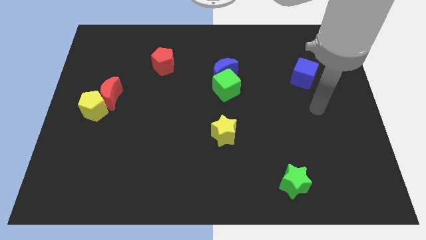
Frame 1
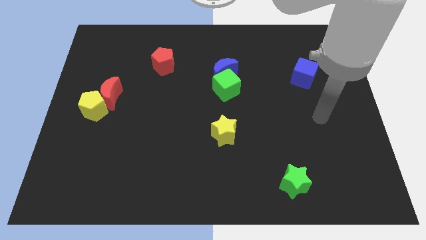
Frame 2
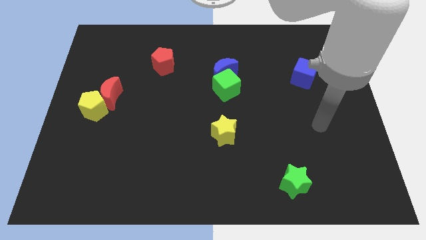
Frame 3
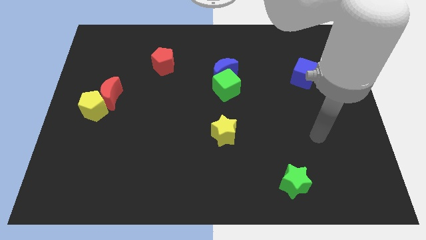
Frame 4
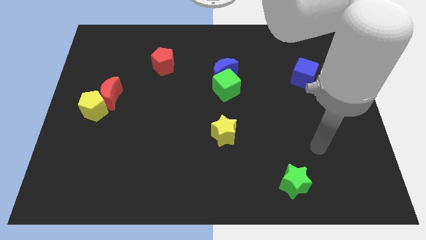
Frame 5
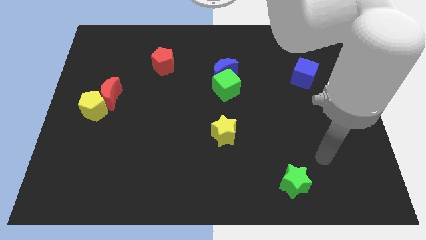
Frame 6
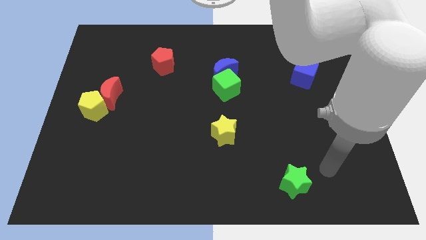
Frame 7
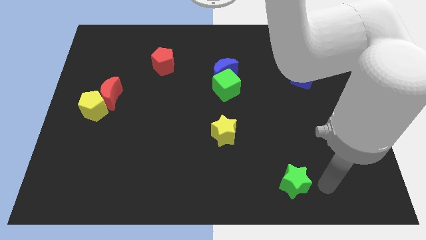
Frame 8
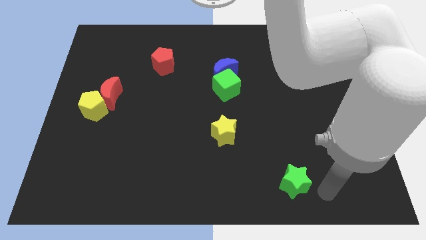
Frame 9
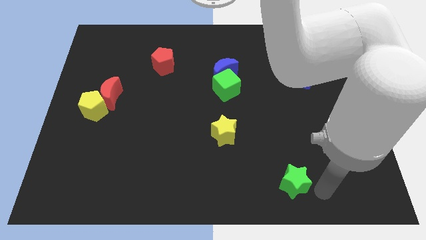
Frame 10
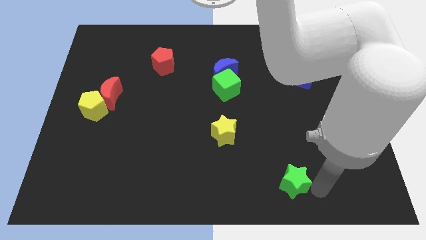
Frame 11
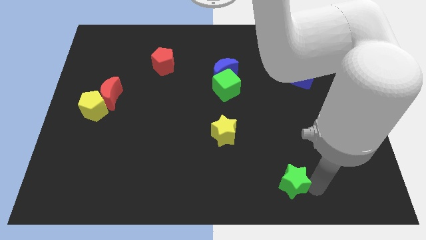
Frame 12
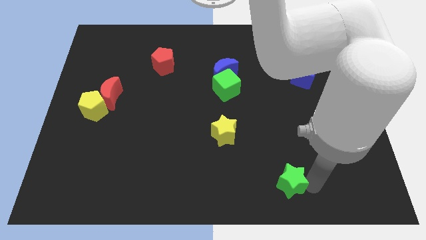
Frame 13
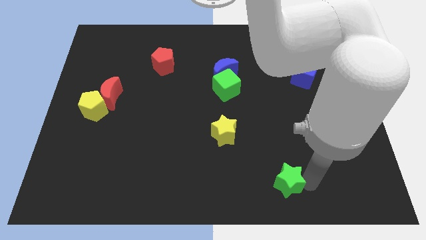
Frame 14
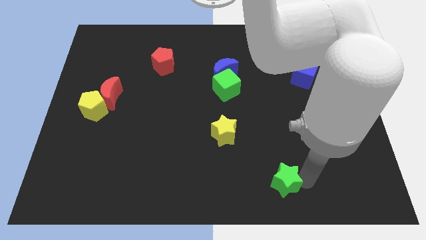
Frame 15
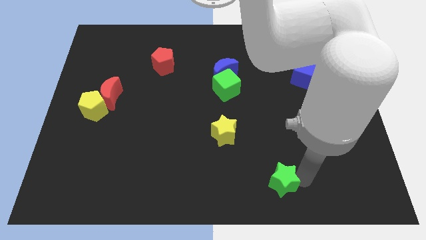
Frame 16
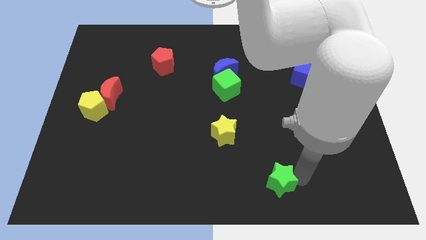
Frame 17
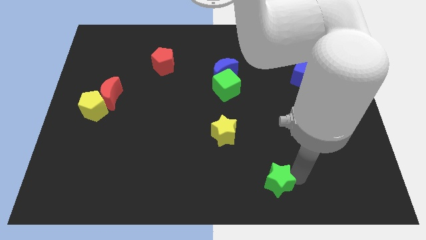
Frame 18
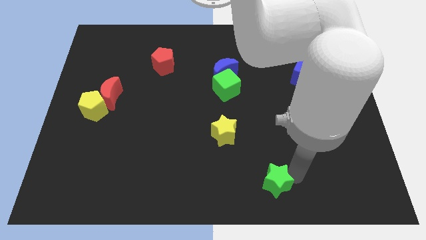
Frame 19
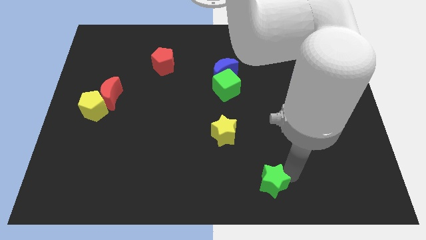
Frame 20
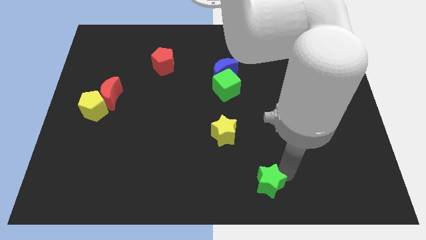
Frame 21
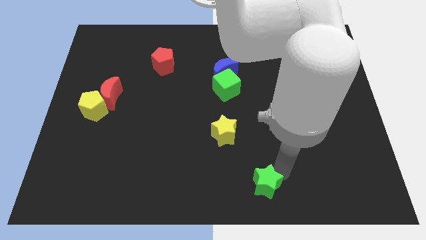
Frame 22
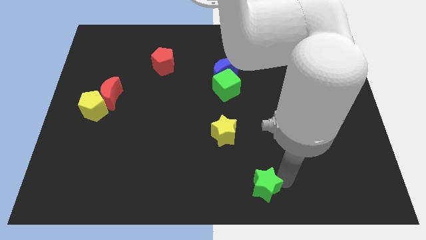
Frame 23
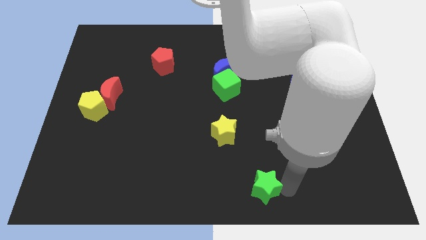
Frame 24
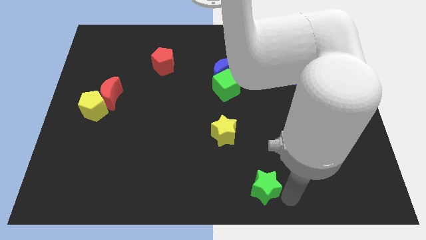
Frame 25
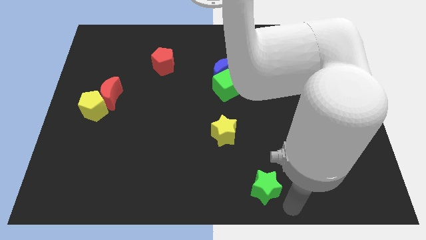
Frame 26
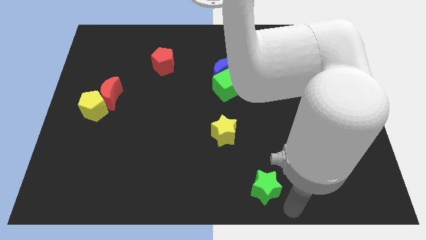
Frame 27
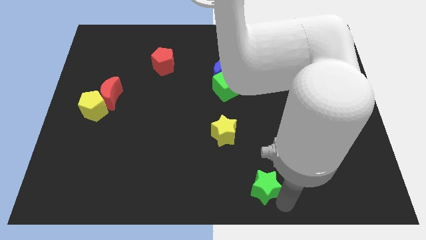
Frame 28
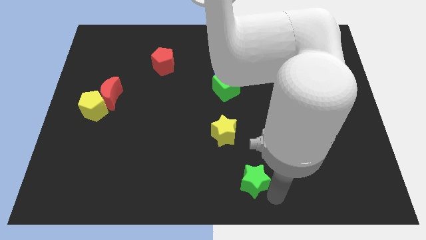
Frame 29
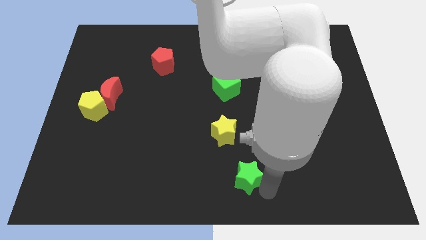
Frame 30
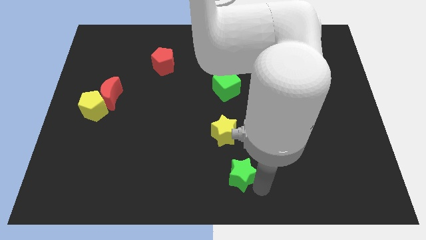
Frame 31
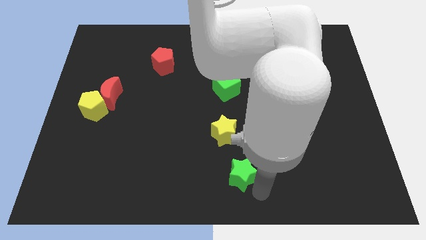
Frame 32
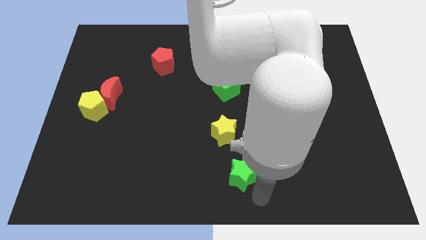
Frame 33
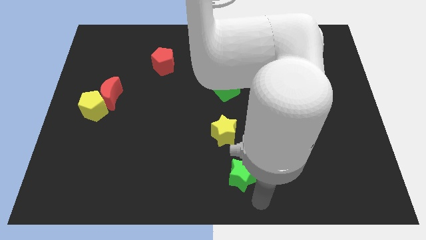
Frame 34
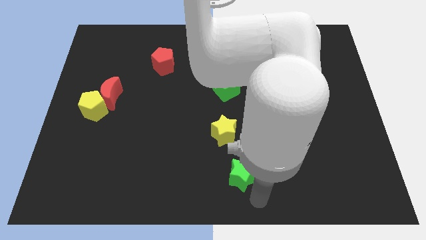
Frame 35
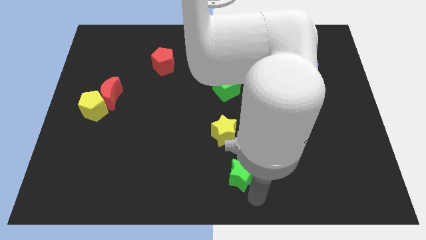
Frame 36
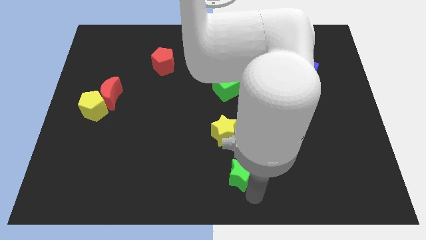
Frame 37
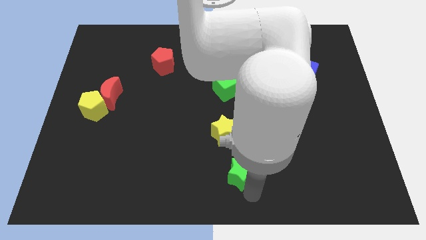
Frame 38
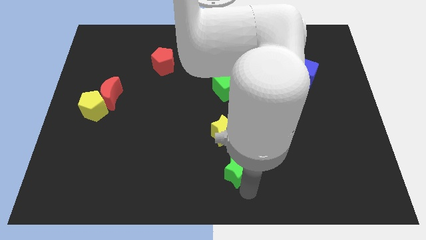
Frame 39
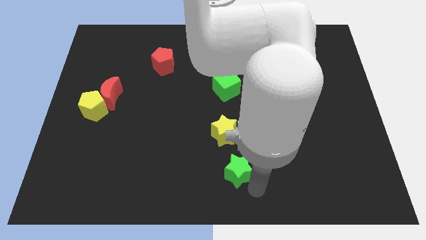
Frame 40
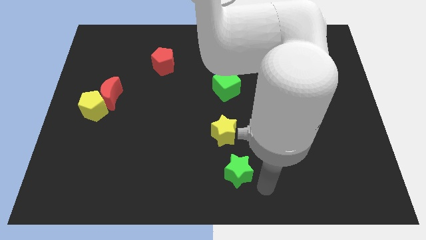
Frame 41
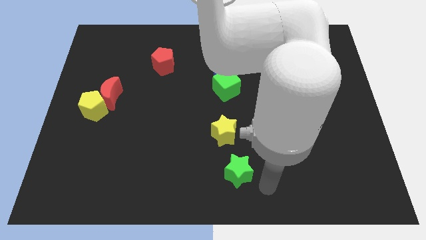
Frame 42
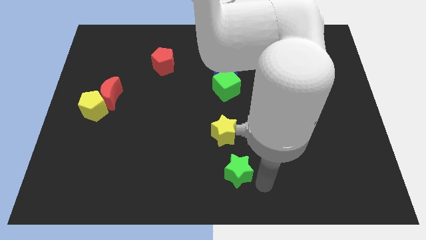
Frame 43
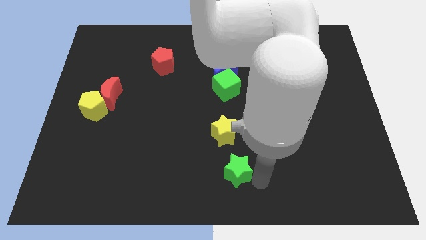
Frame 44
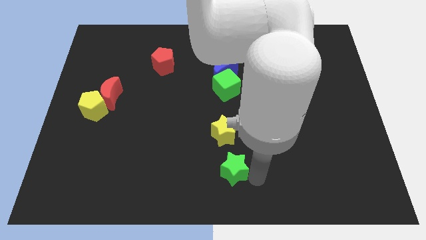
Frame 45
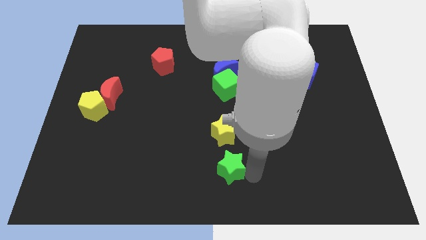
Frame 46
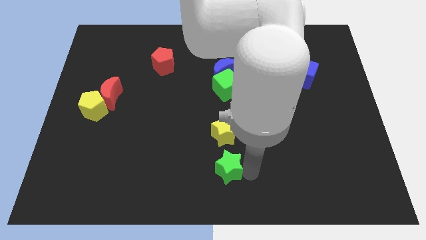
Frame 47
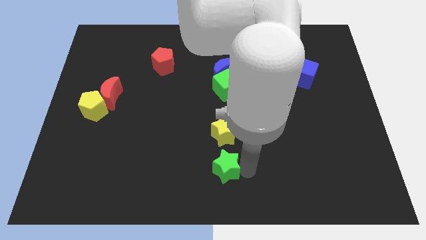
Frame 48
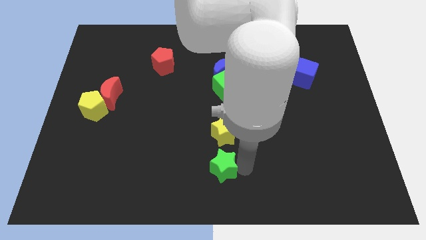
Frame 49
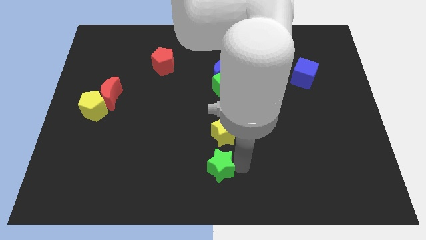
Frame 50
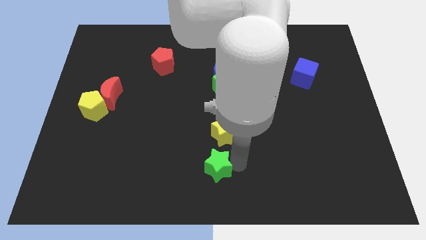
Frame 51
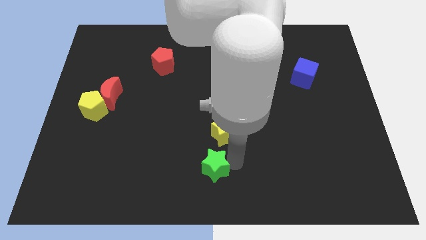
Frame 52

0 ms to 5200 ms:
push the green star to the bottom left of the yellow star

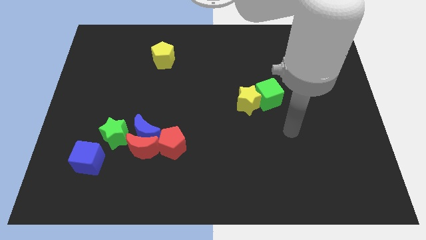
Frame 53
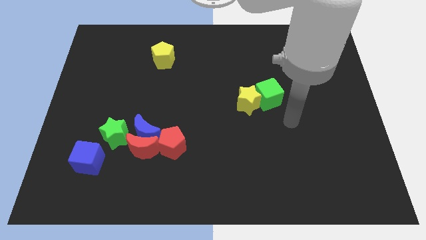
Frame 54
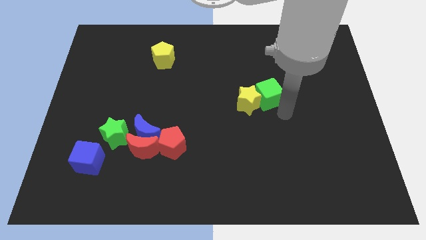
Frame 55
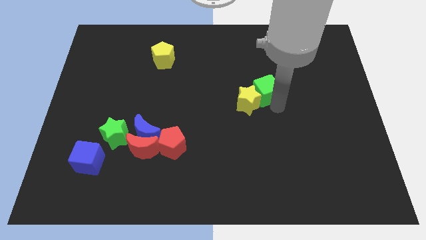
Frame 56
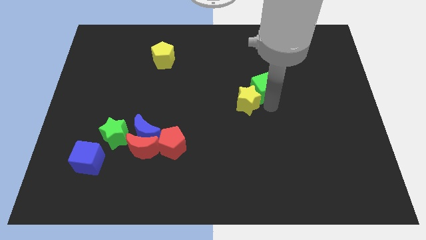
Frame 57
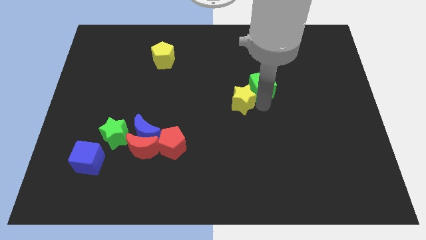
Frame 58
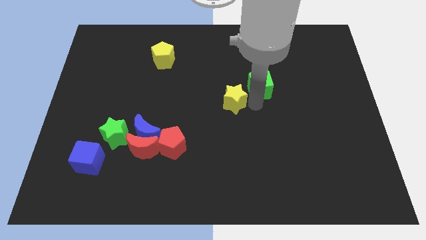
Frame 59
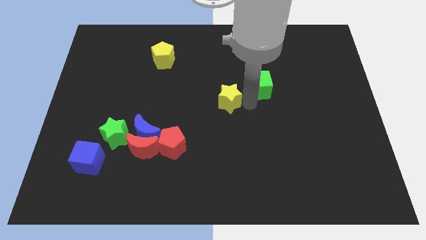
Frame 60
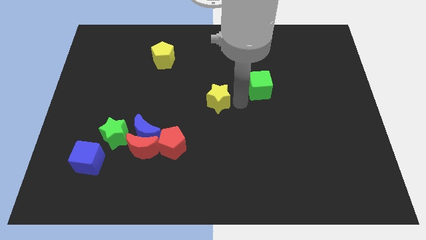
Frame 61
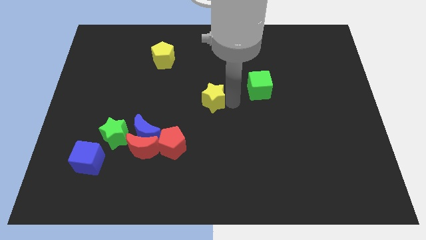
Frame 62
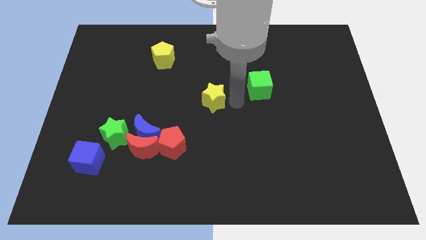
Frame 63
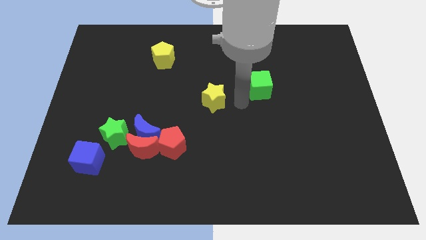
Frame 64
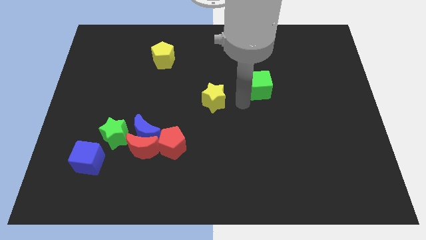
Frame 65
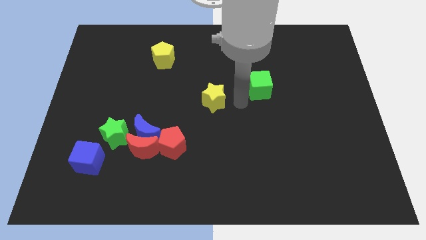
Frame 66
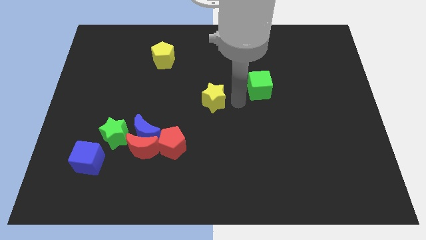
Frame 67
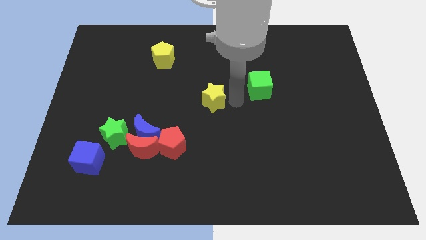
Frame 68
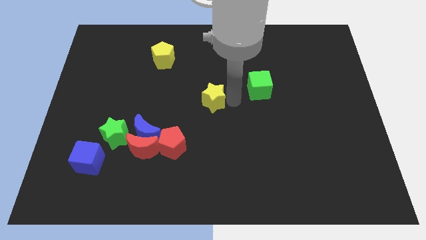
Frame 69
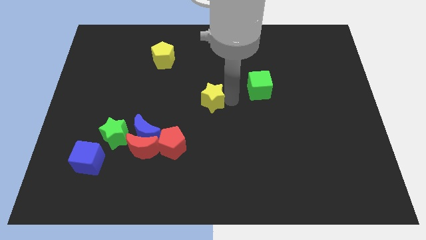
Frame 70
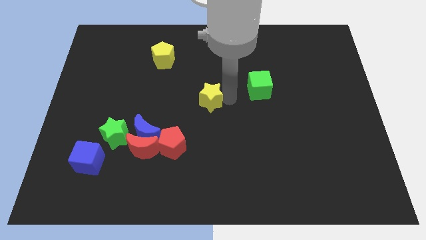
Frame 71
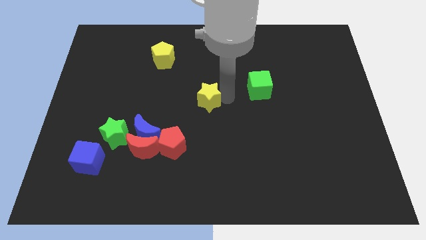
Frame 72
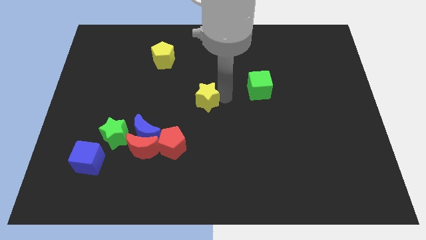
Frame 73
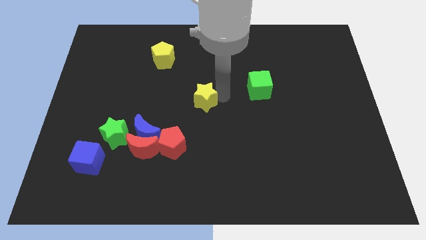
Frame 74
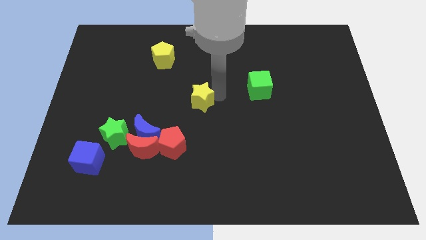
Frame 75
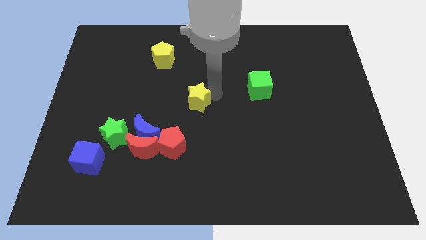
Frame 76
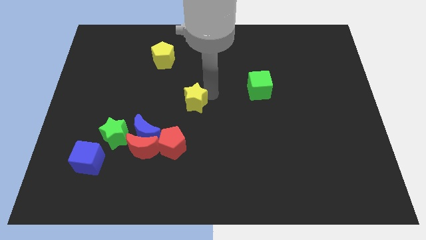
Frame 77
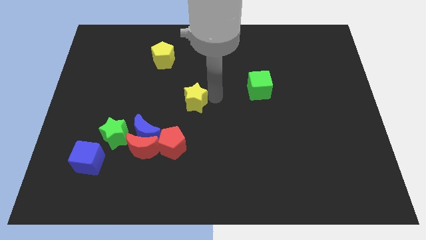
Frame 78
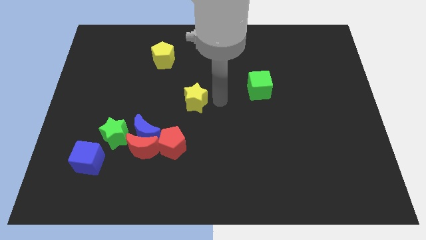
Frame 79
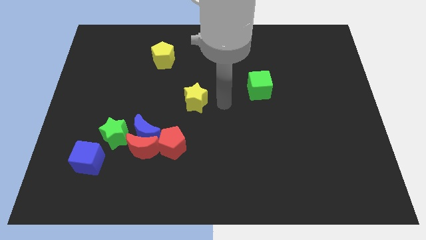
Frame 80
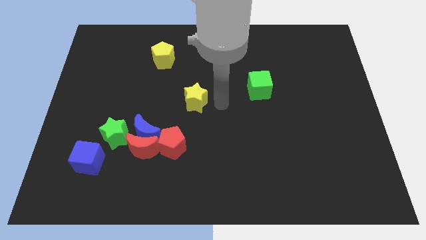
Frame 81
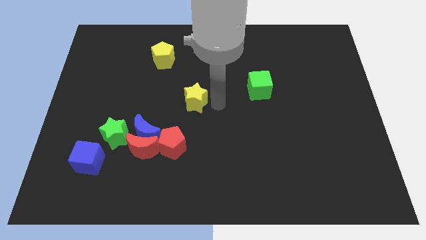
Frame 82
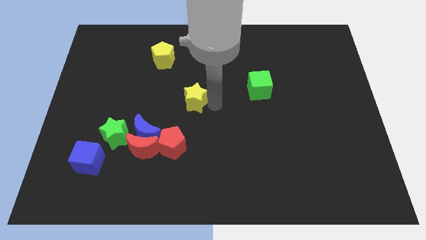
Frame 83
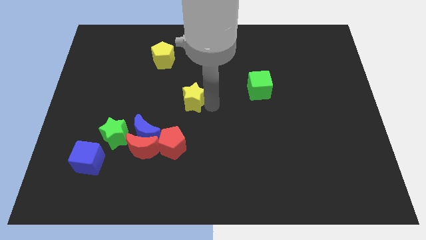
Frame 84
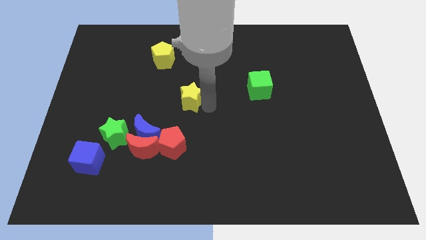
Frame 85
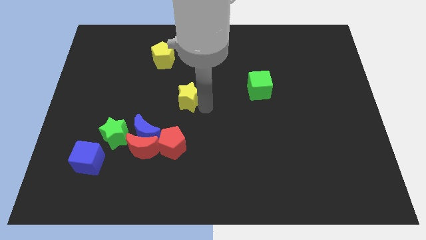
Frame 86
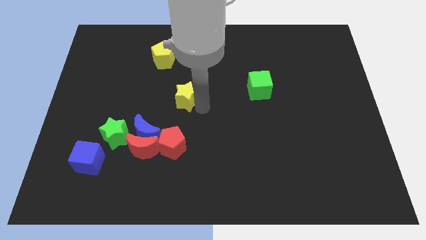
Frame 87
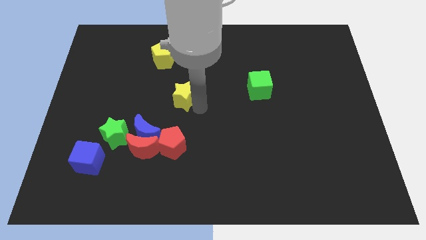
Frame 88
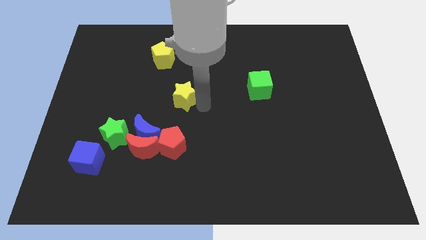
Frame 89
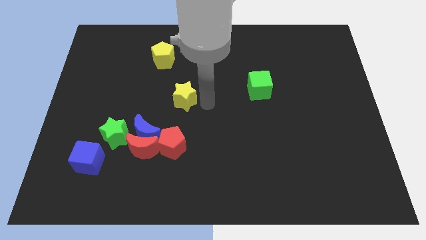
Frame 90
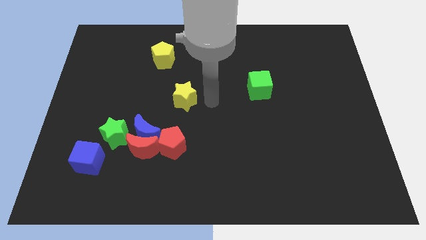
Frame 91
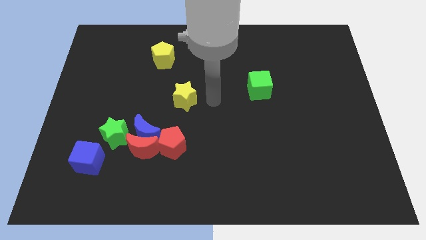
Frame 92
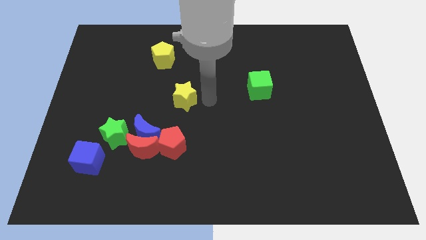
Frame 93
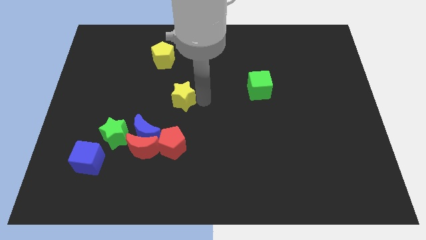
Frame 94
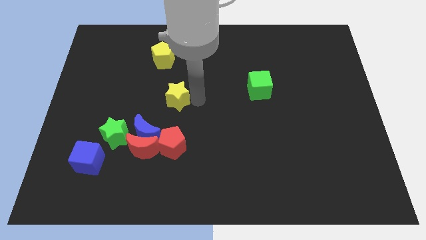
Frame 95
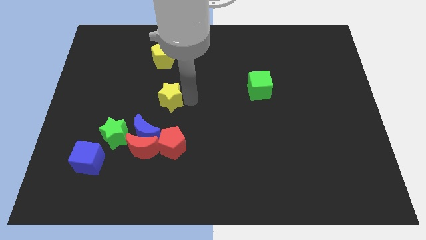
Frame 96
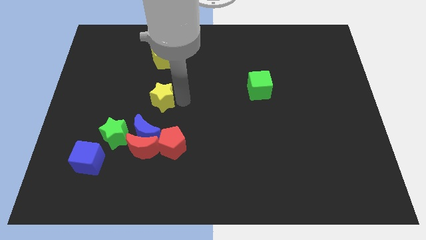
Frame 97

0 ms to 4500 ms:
put the yellow star to the top of the blue moon
